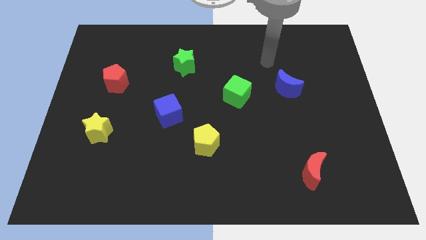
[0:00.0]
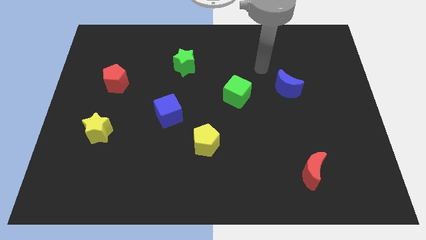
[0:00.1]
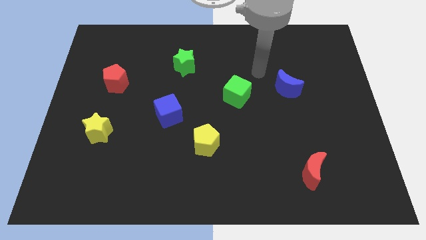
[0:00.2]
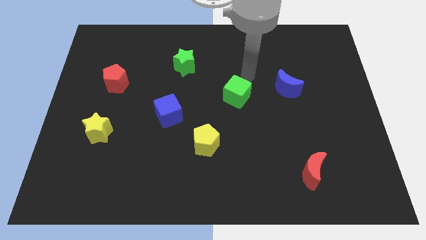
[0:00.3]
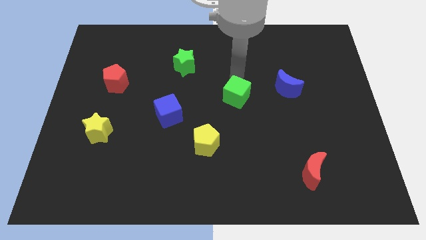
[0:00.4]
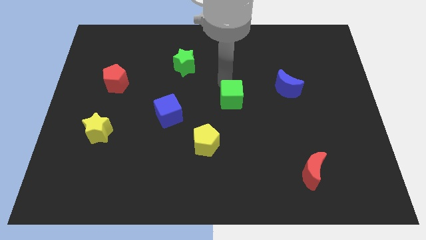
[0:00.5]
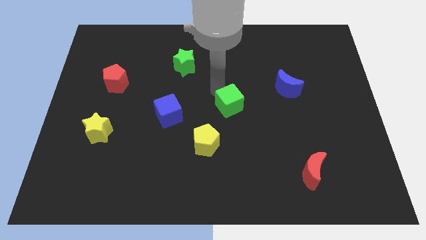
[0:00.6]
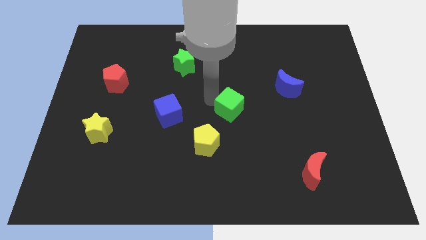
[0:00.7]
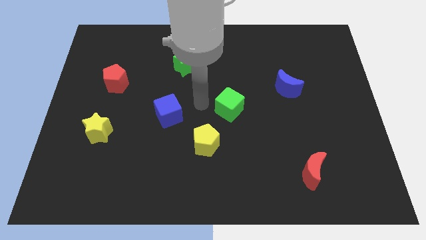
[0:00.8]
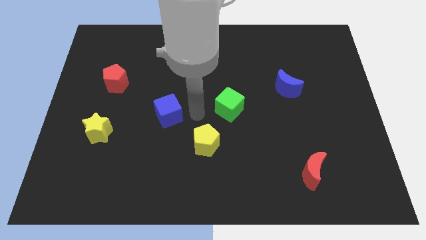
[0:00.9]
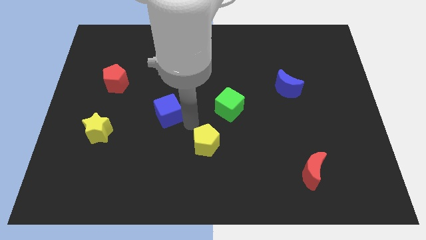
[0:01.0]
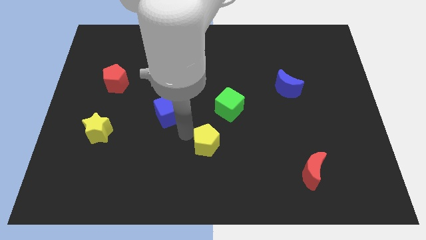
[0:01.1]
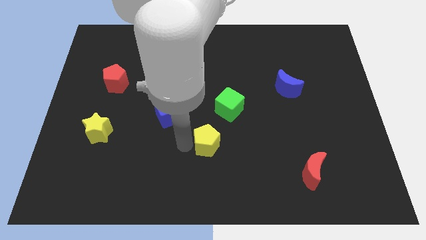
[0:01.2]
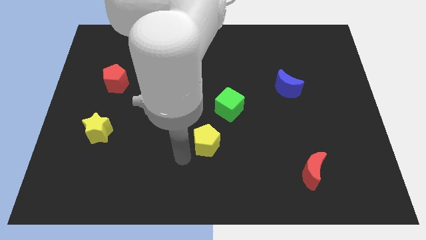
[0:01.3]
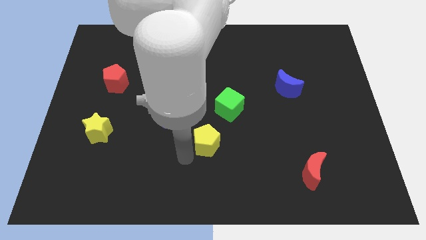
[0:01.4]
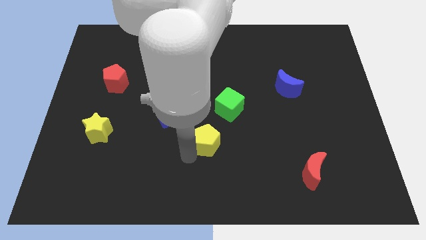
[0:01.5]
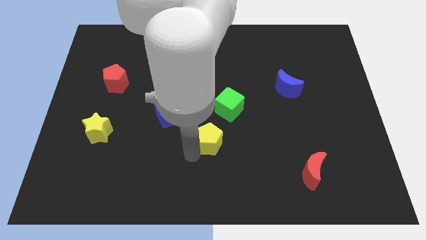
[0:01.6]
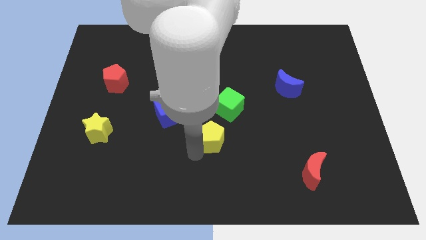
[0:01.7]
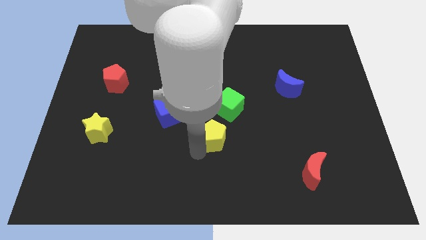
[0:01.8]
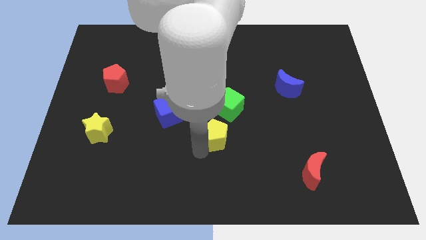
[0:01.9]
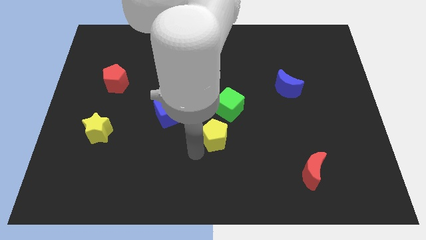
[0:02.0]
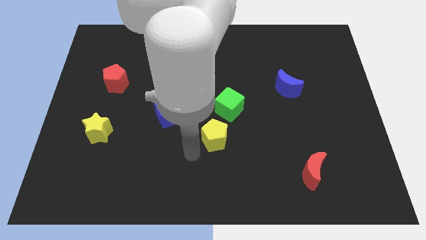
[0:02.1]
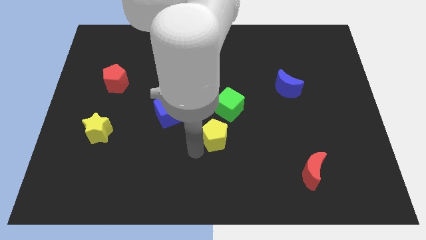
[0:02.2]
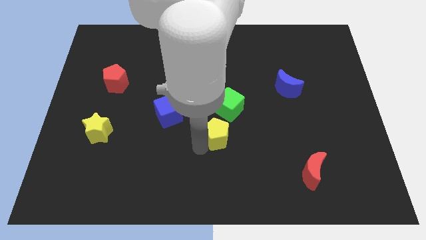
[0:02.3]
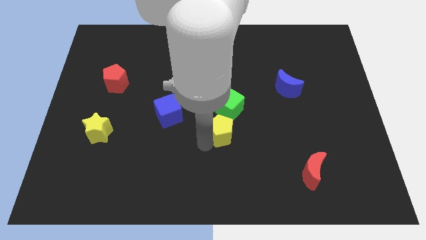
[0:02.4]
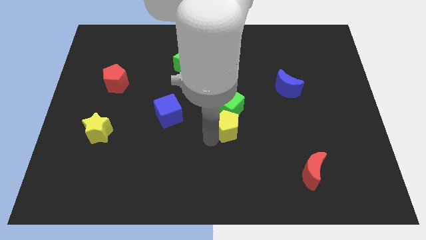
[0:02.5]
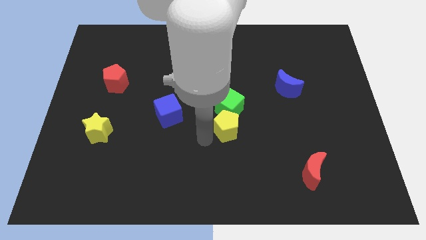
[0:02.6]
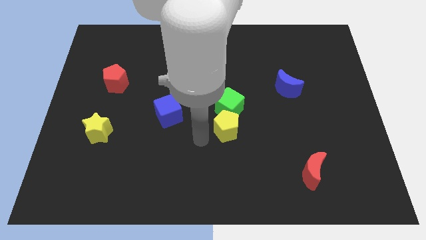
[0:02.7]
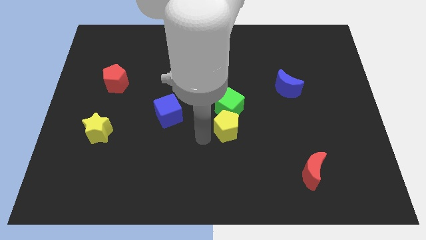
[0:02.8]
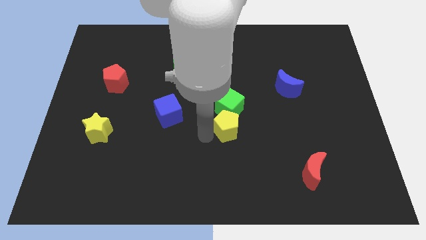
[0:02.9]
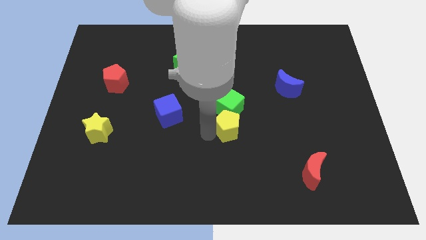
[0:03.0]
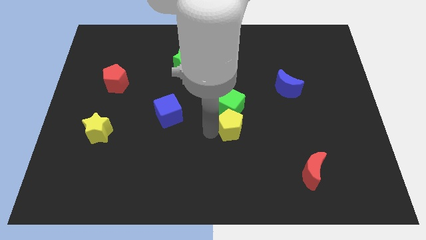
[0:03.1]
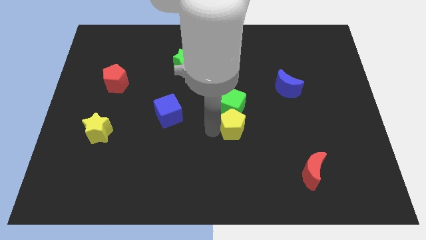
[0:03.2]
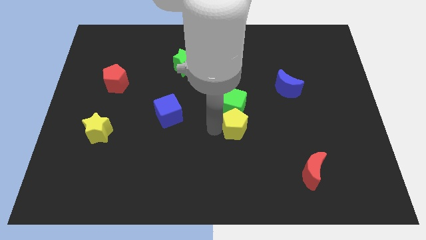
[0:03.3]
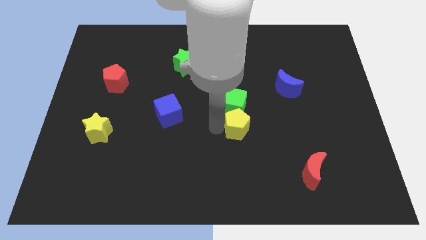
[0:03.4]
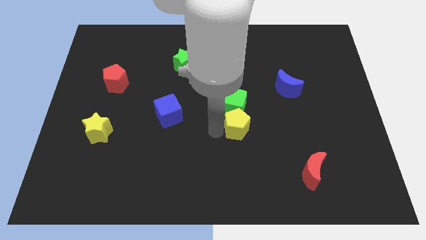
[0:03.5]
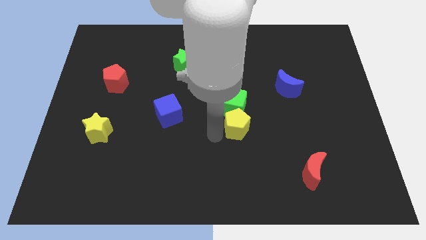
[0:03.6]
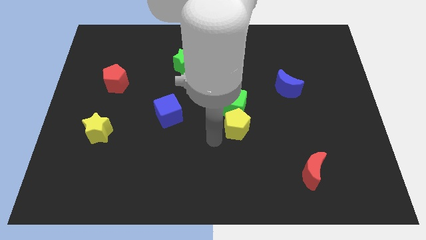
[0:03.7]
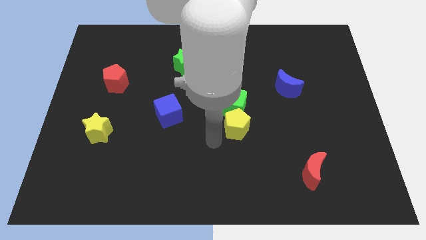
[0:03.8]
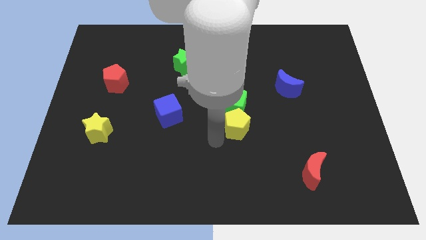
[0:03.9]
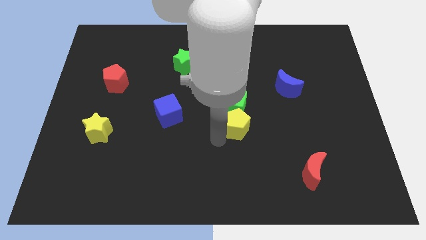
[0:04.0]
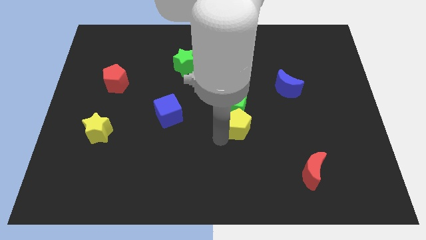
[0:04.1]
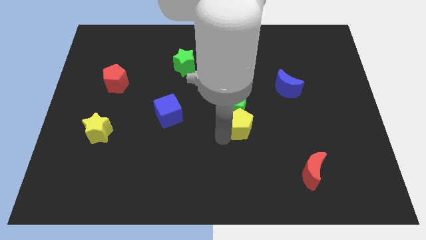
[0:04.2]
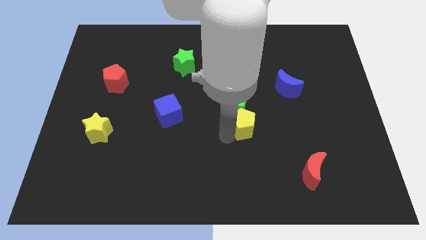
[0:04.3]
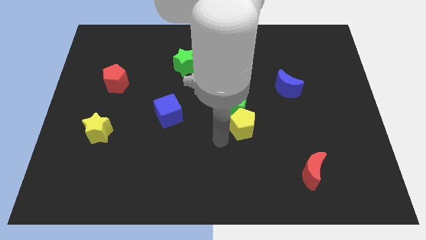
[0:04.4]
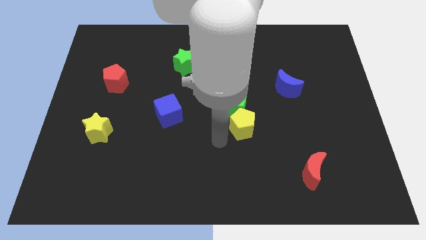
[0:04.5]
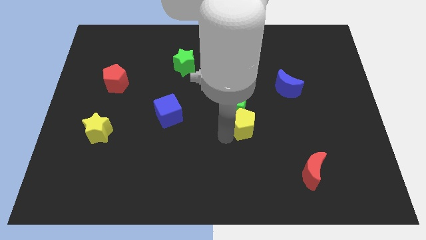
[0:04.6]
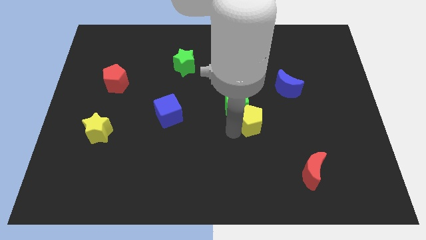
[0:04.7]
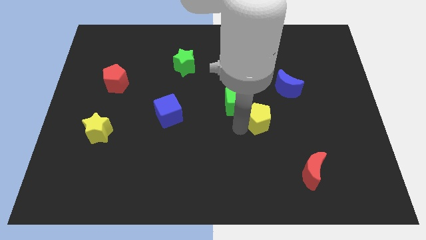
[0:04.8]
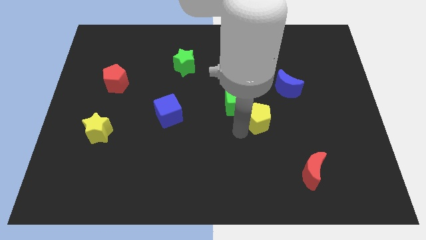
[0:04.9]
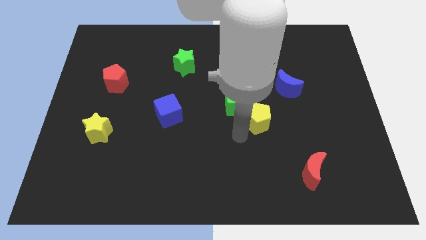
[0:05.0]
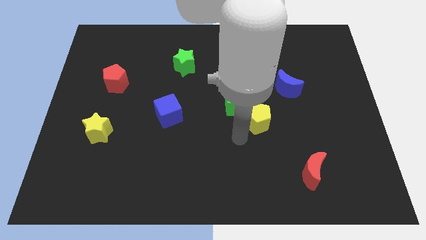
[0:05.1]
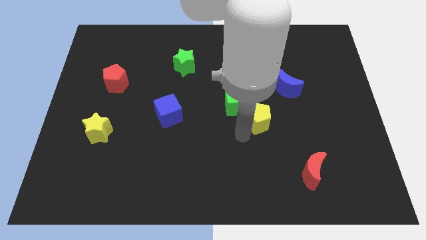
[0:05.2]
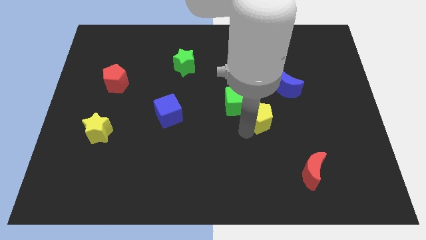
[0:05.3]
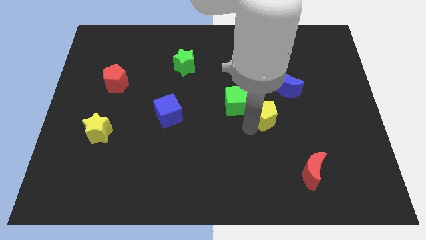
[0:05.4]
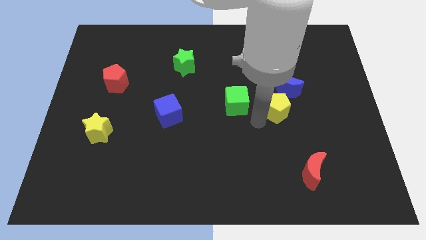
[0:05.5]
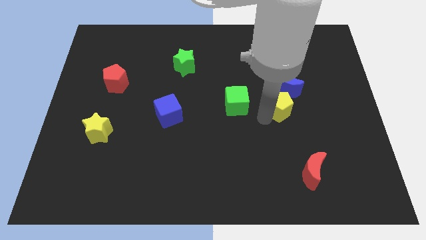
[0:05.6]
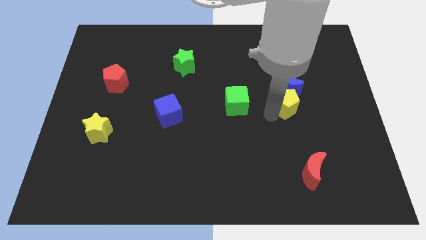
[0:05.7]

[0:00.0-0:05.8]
put the yellow pentagon close to the blue moon

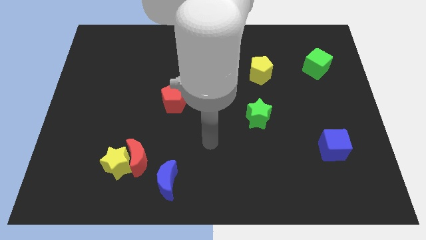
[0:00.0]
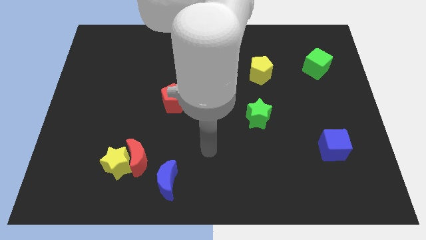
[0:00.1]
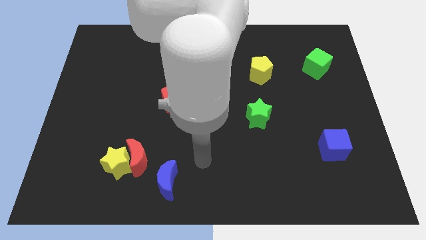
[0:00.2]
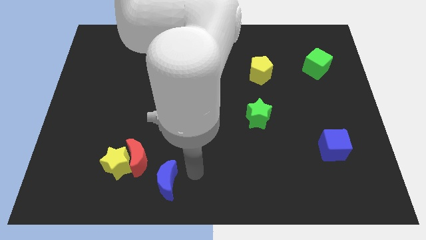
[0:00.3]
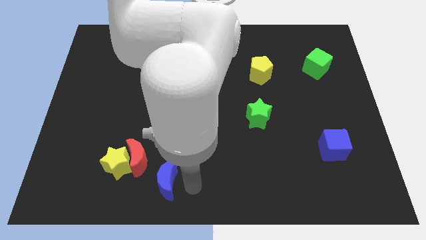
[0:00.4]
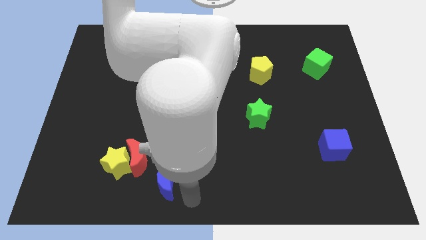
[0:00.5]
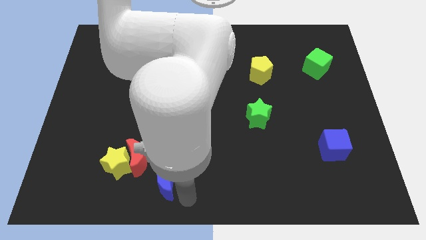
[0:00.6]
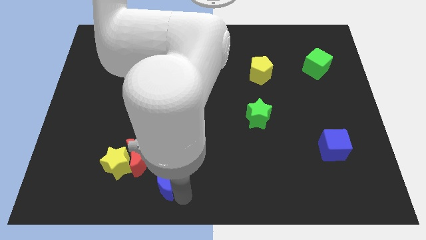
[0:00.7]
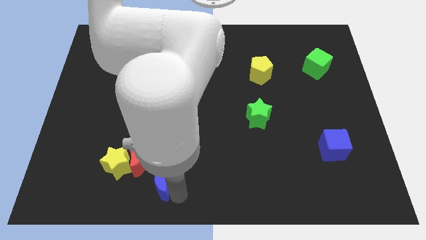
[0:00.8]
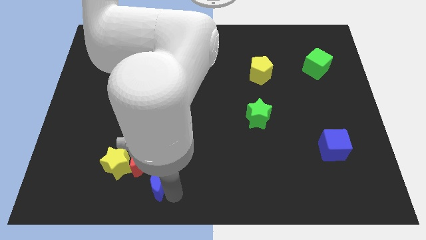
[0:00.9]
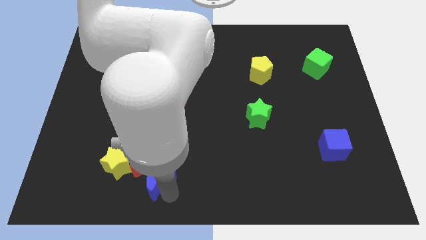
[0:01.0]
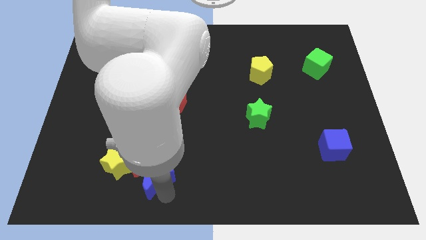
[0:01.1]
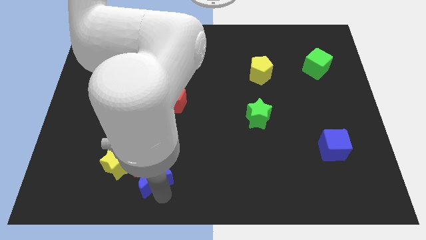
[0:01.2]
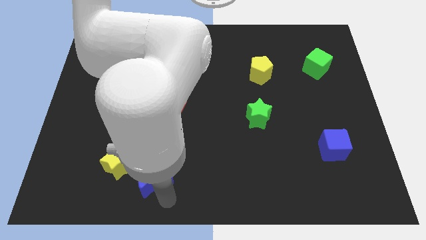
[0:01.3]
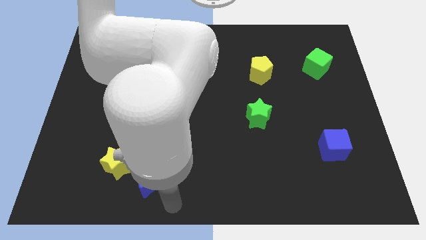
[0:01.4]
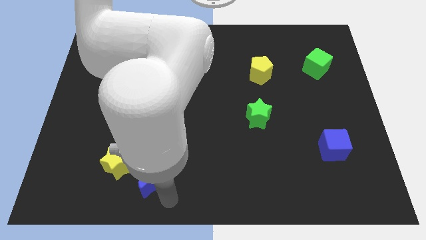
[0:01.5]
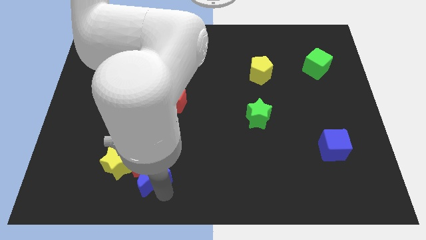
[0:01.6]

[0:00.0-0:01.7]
put the blue moon next to the red moon
